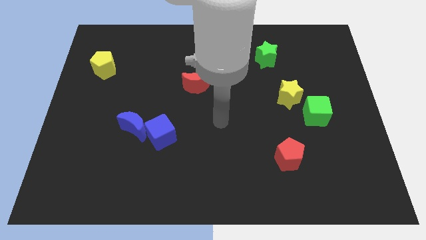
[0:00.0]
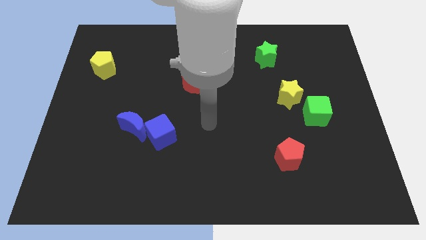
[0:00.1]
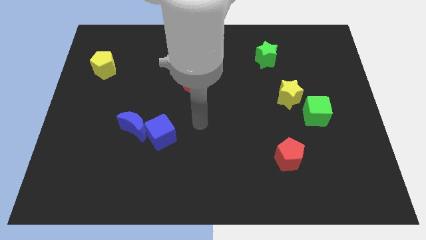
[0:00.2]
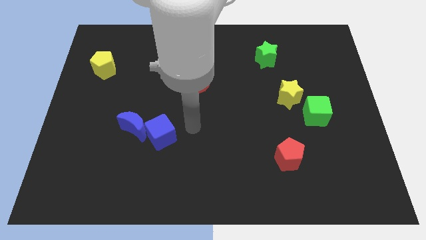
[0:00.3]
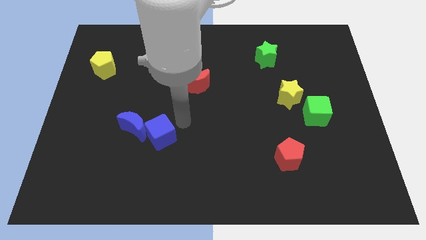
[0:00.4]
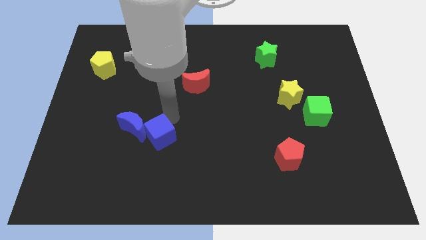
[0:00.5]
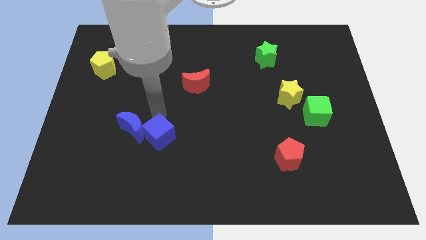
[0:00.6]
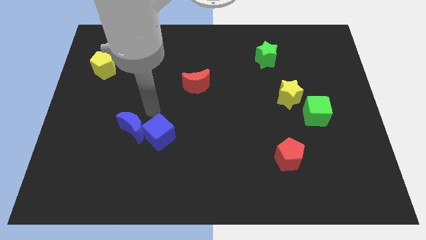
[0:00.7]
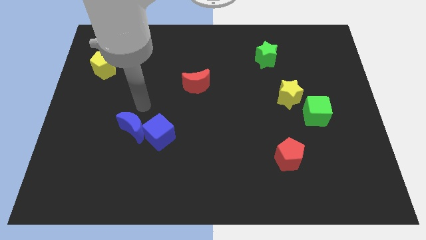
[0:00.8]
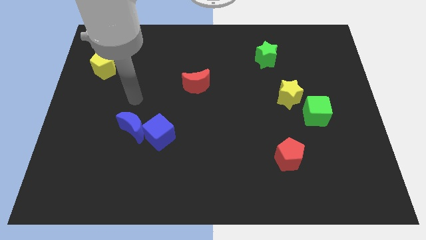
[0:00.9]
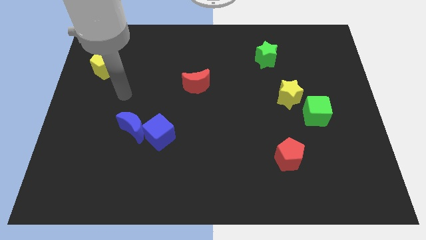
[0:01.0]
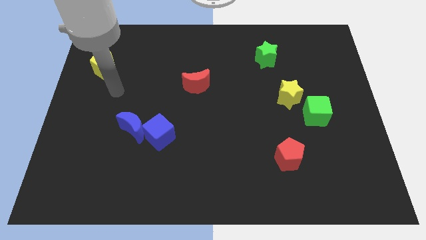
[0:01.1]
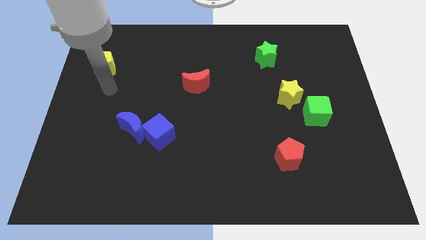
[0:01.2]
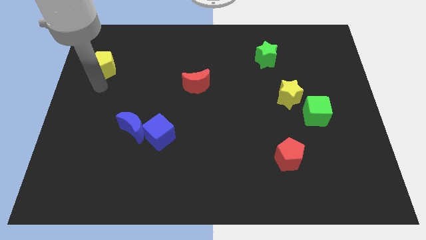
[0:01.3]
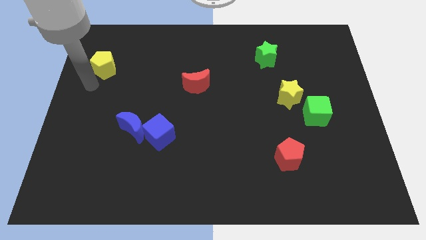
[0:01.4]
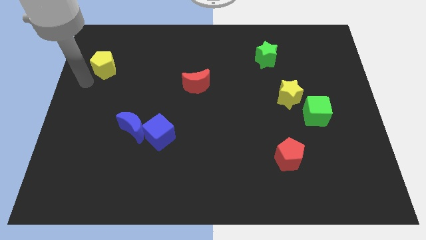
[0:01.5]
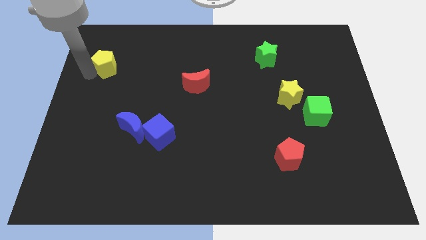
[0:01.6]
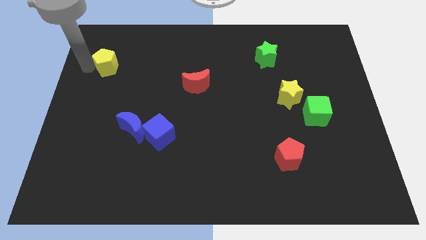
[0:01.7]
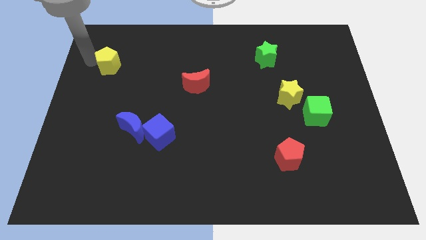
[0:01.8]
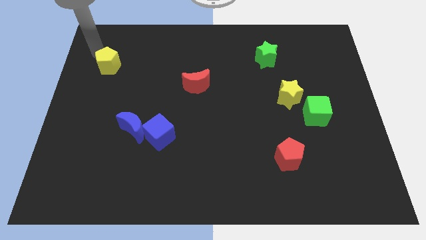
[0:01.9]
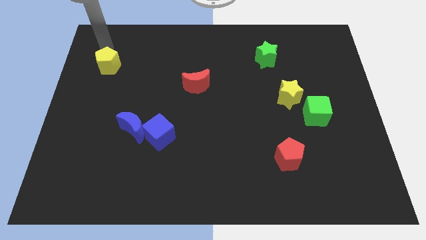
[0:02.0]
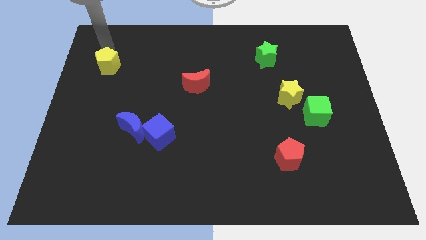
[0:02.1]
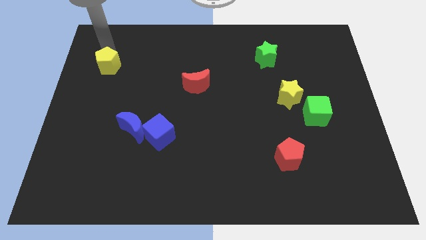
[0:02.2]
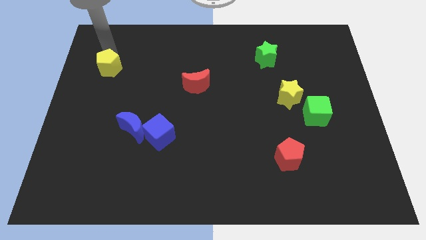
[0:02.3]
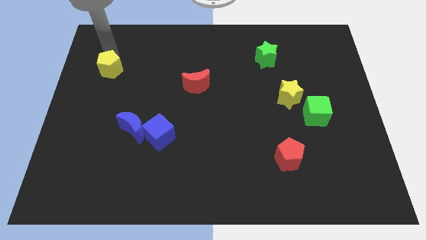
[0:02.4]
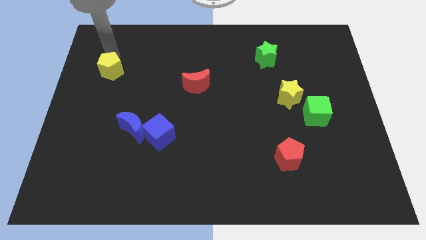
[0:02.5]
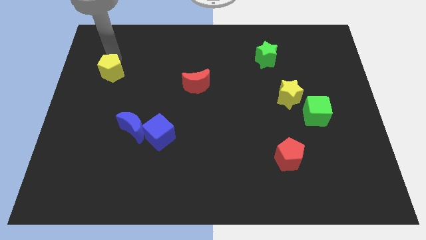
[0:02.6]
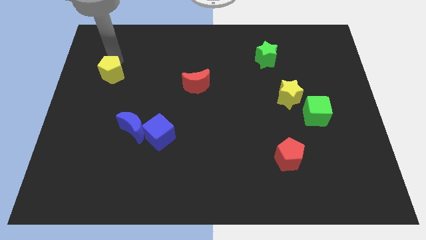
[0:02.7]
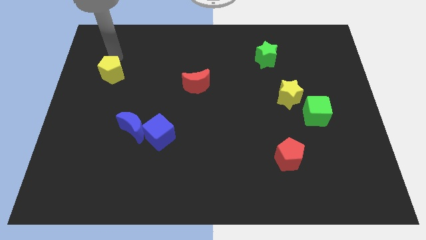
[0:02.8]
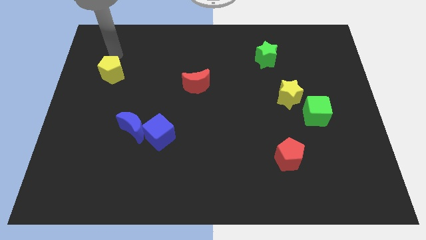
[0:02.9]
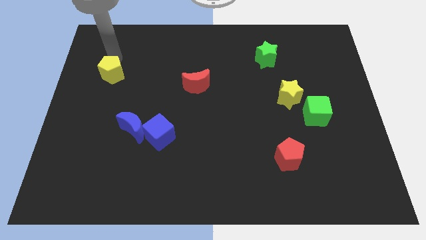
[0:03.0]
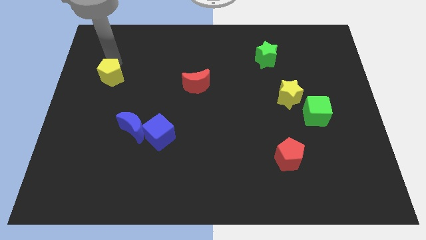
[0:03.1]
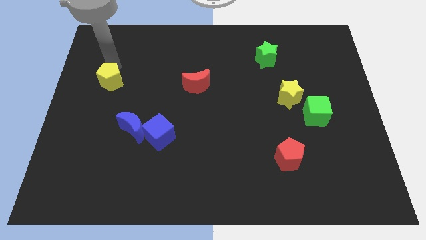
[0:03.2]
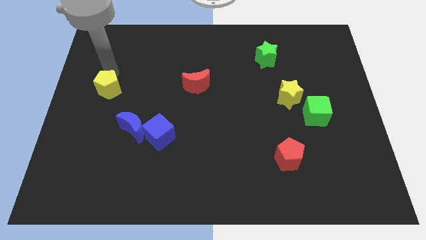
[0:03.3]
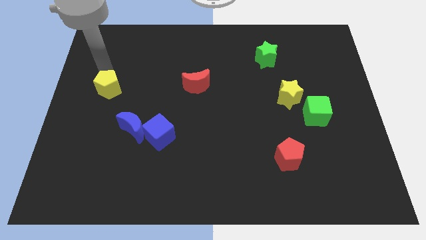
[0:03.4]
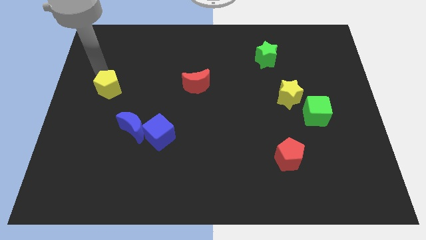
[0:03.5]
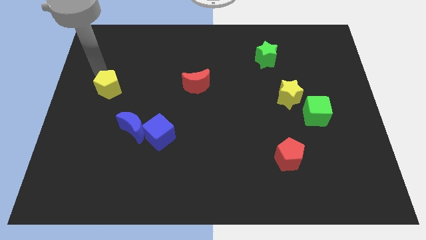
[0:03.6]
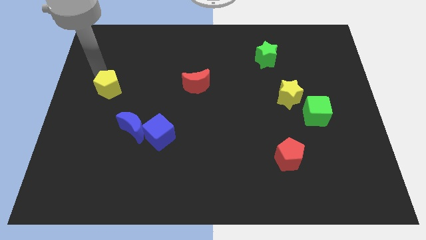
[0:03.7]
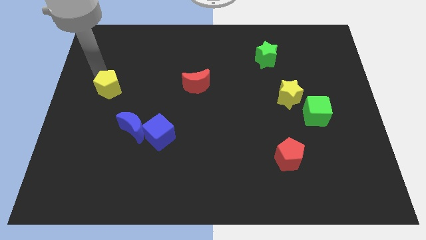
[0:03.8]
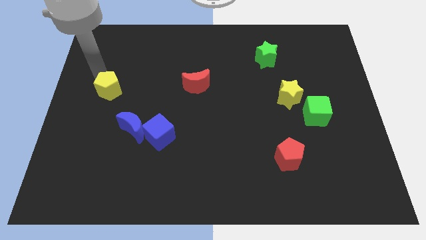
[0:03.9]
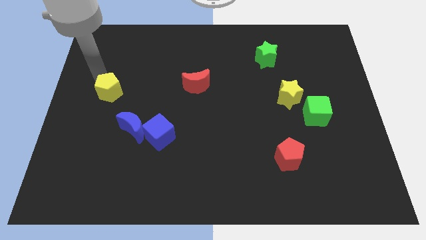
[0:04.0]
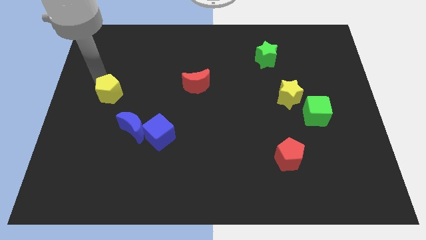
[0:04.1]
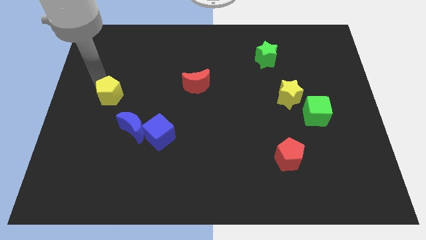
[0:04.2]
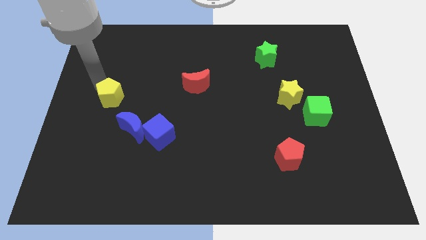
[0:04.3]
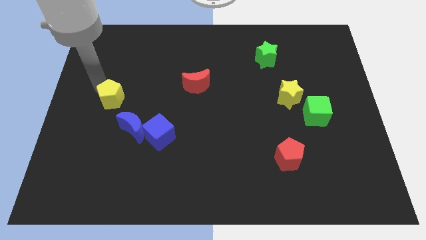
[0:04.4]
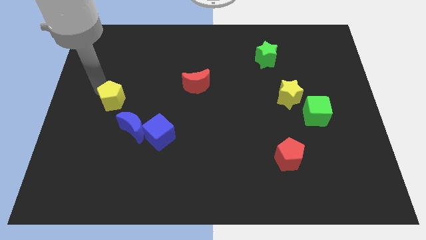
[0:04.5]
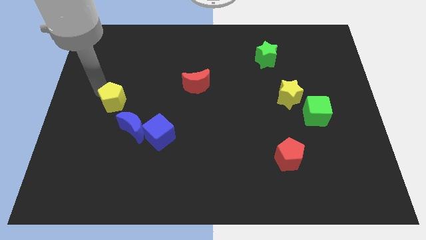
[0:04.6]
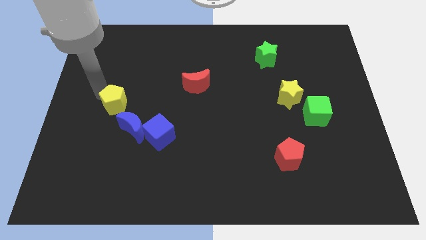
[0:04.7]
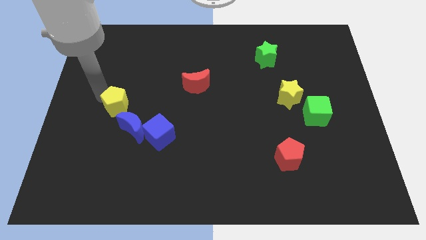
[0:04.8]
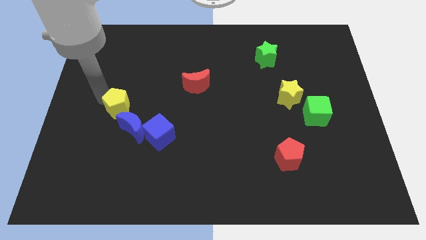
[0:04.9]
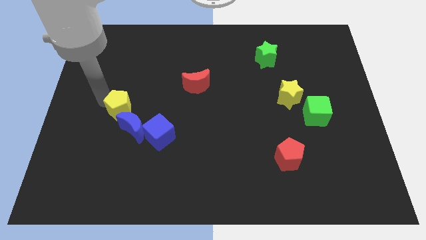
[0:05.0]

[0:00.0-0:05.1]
move the yellow pentagon to the top left of the blue cube

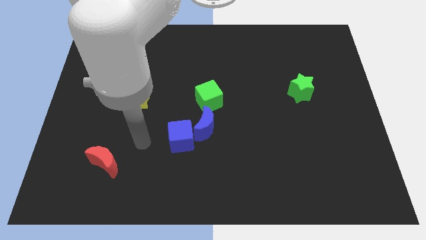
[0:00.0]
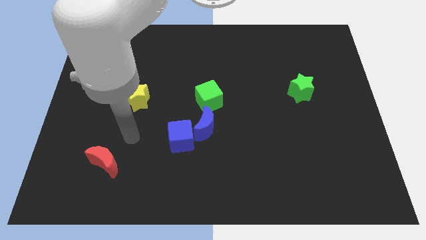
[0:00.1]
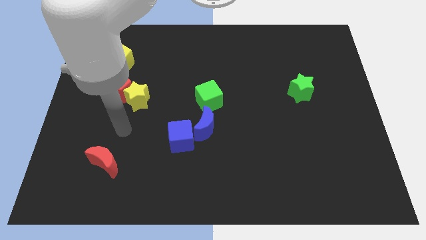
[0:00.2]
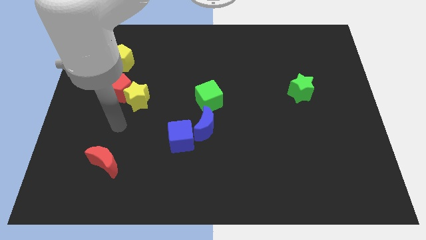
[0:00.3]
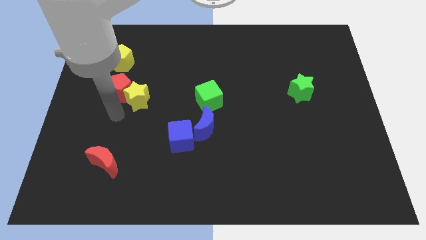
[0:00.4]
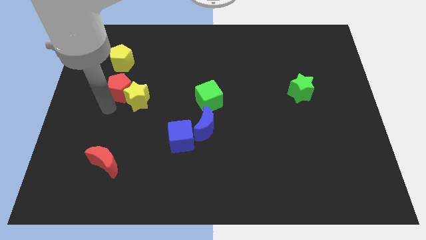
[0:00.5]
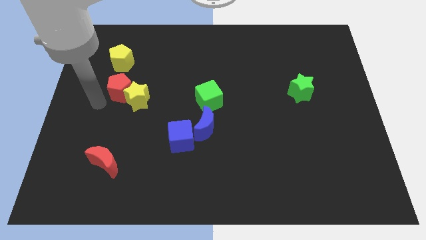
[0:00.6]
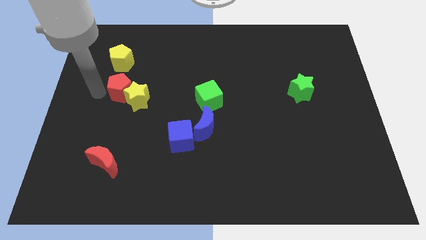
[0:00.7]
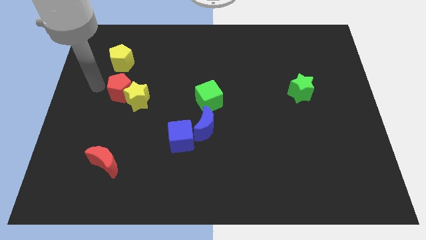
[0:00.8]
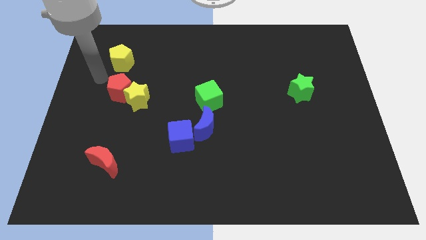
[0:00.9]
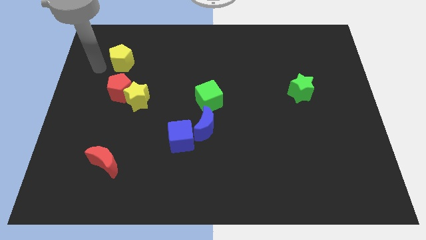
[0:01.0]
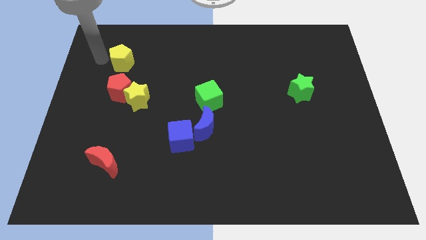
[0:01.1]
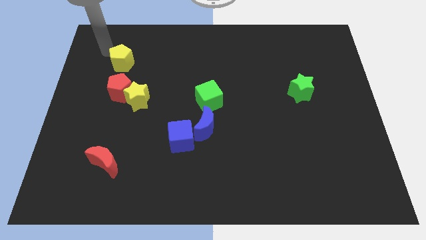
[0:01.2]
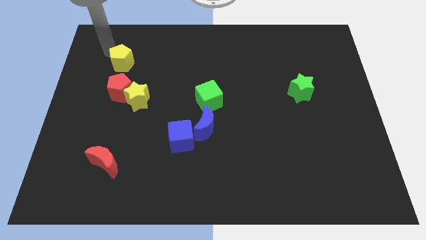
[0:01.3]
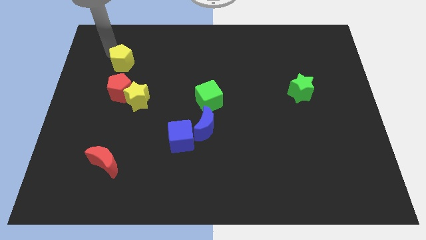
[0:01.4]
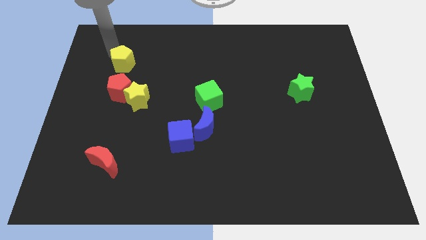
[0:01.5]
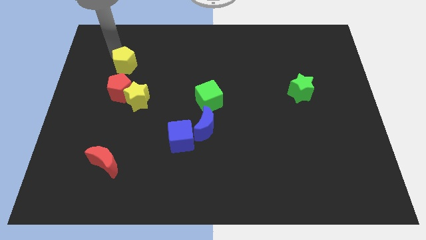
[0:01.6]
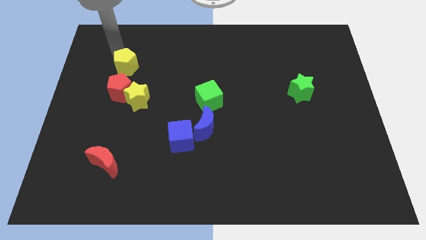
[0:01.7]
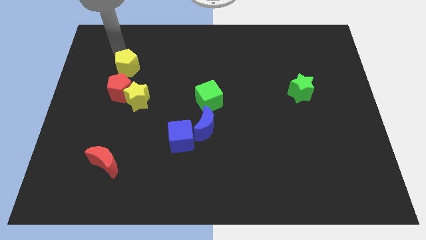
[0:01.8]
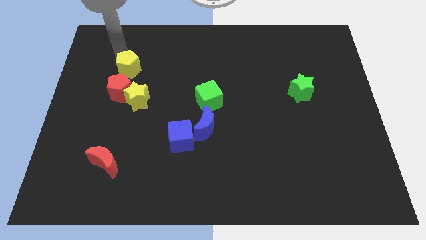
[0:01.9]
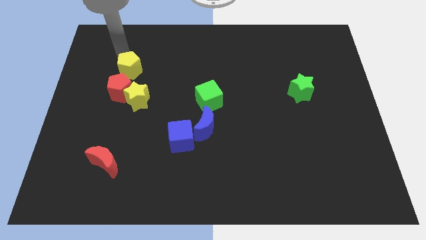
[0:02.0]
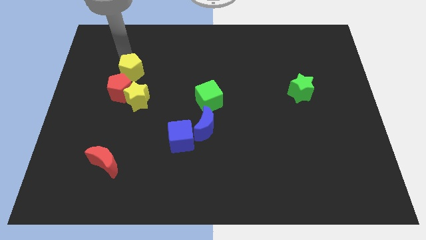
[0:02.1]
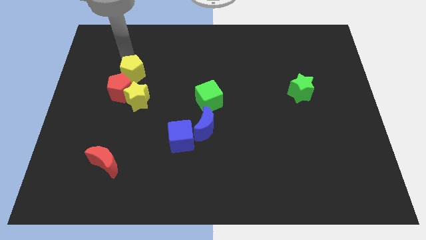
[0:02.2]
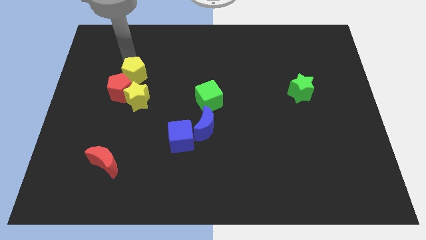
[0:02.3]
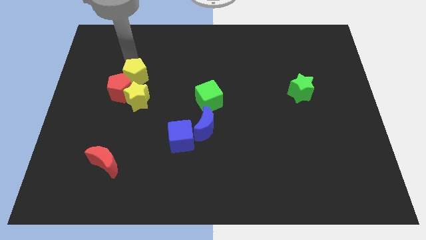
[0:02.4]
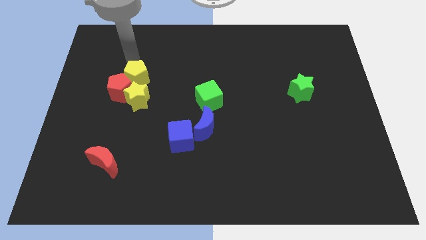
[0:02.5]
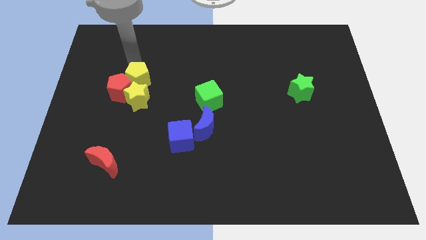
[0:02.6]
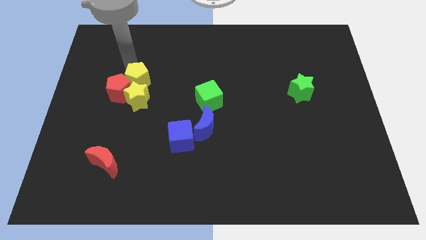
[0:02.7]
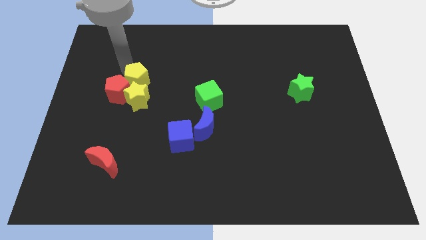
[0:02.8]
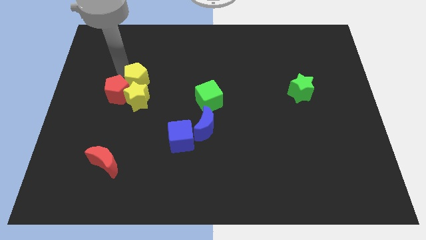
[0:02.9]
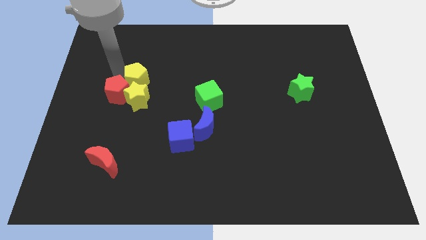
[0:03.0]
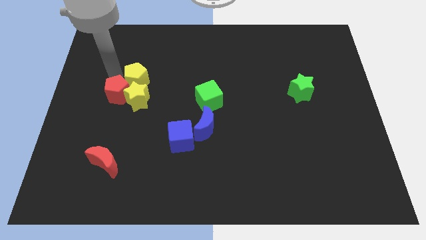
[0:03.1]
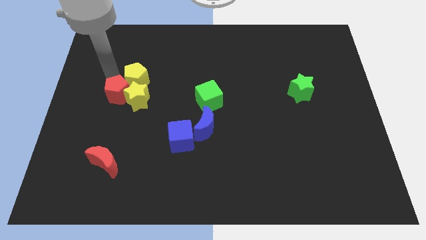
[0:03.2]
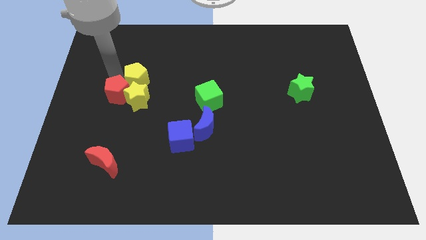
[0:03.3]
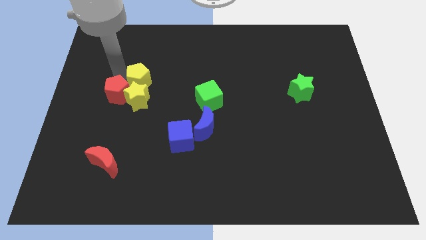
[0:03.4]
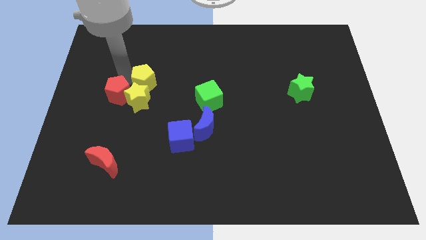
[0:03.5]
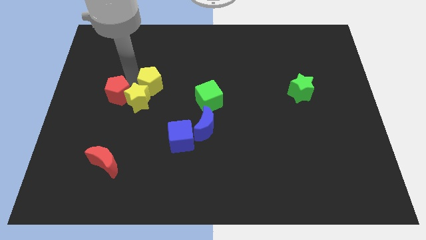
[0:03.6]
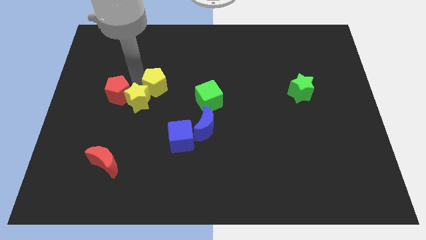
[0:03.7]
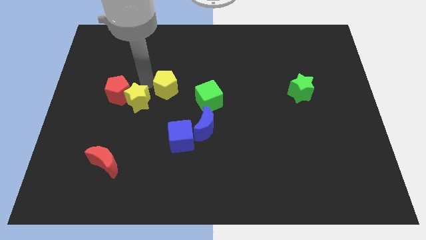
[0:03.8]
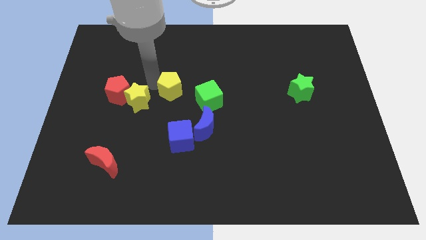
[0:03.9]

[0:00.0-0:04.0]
slide the yellow pentagon above the blue cube
